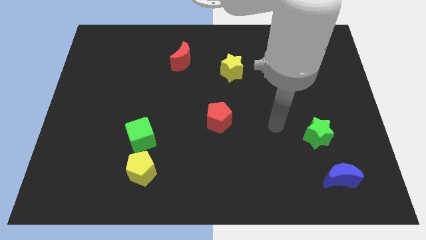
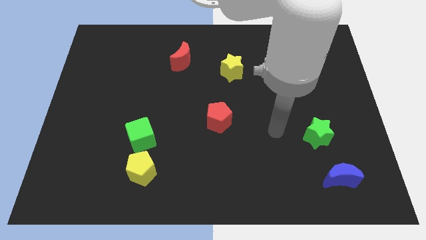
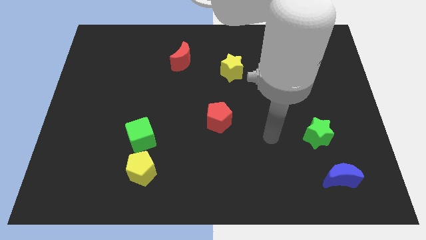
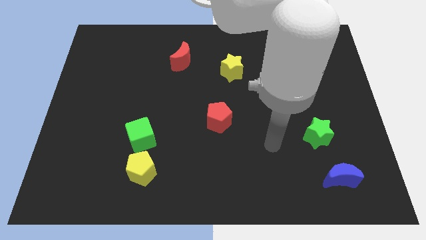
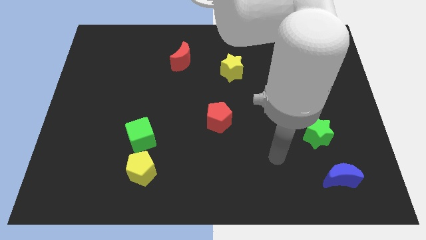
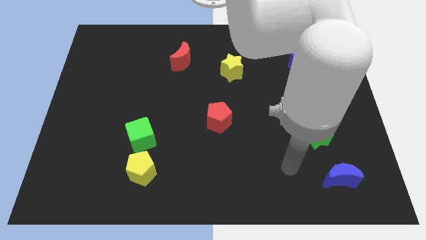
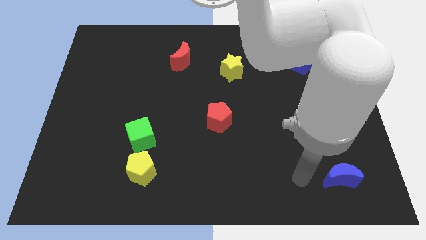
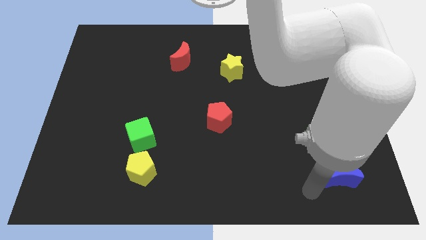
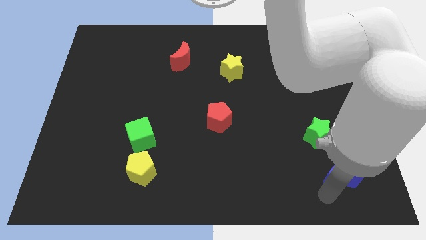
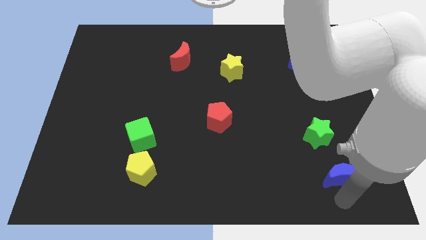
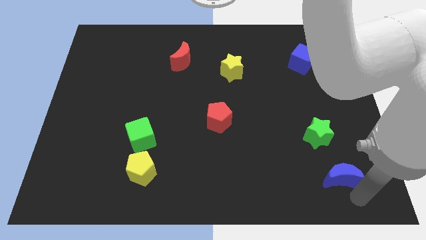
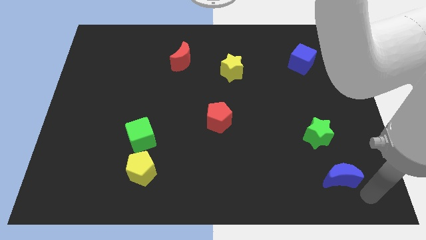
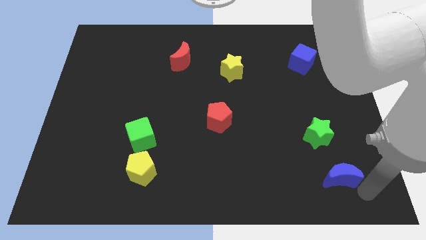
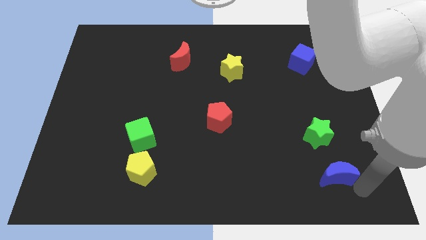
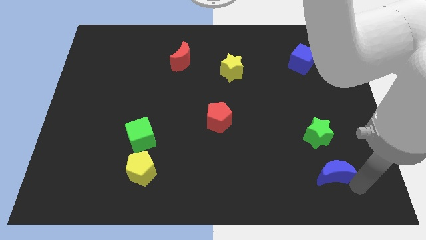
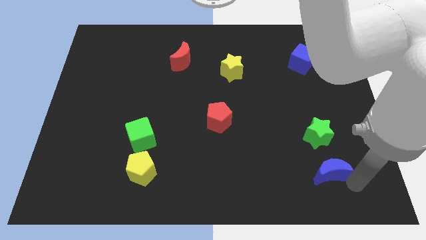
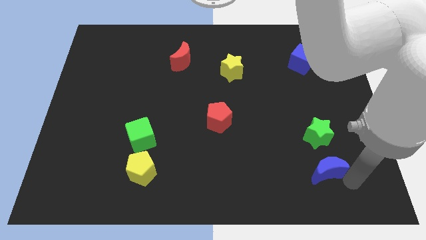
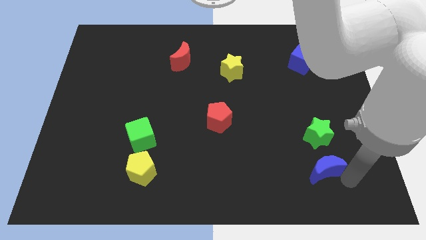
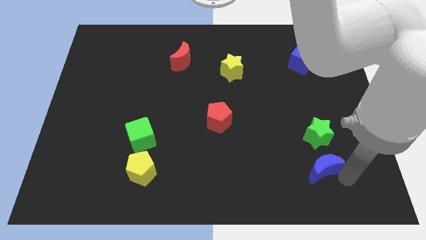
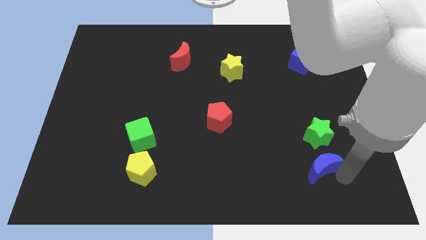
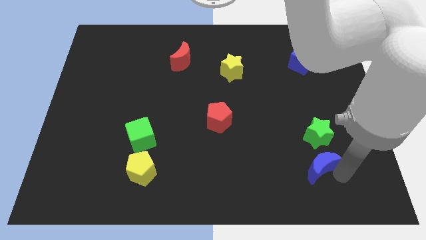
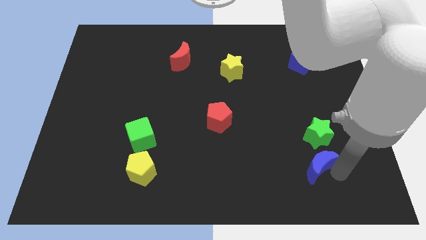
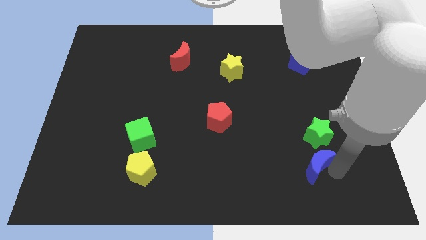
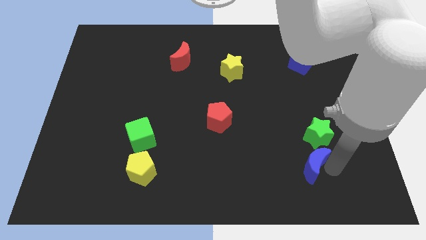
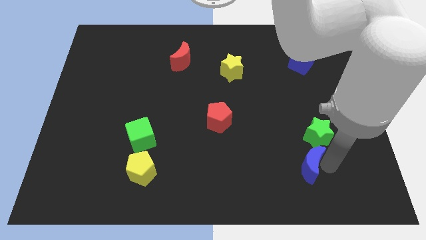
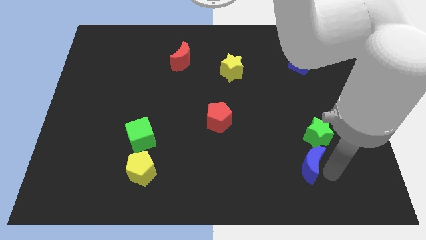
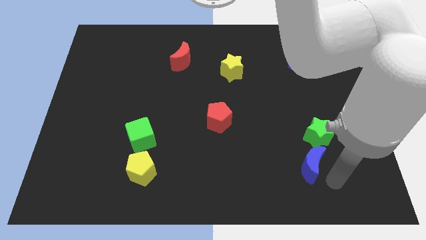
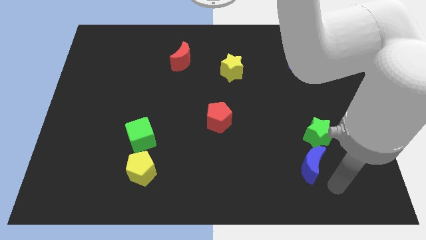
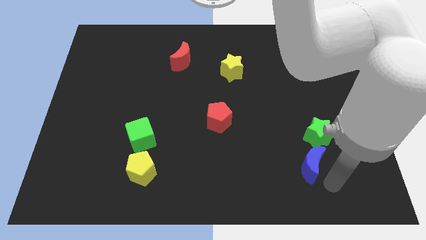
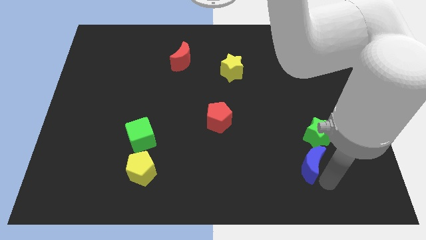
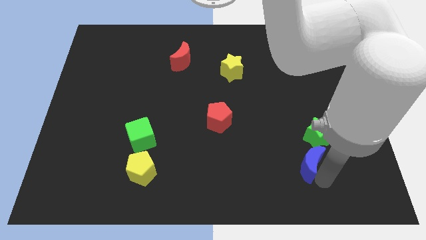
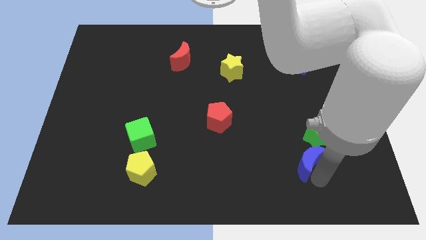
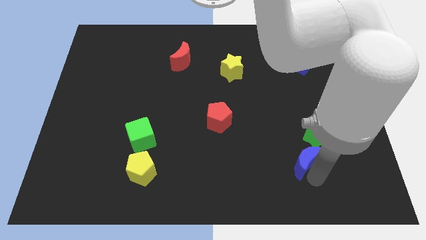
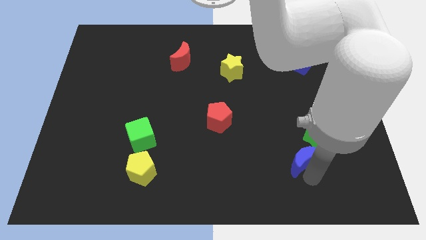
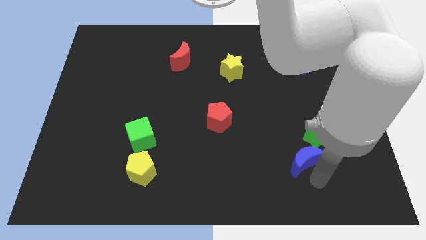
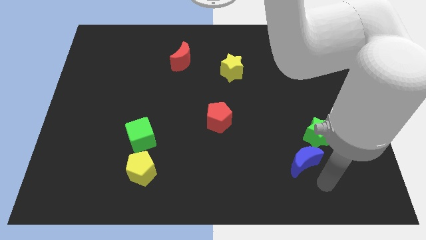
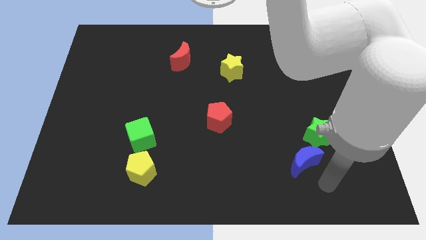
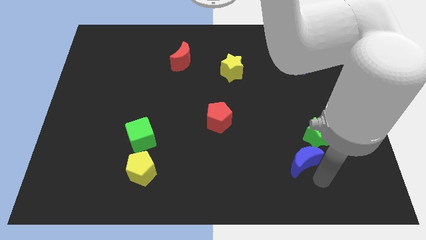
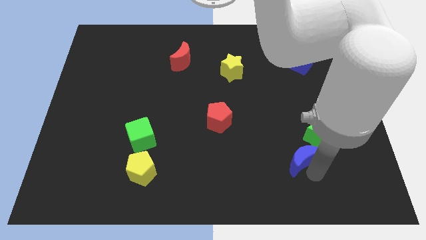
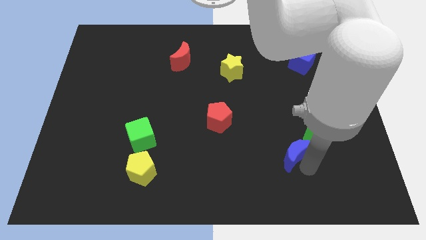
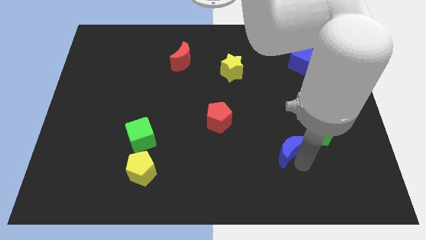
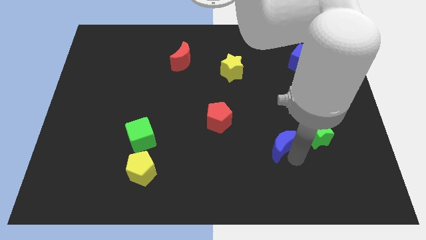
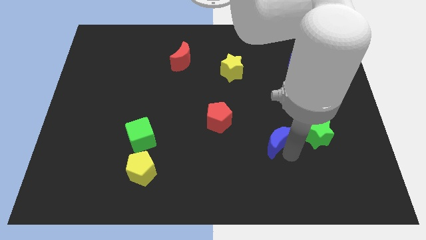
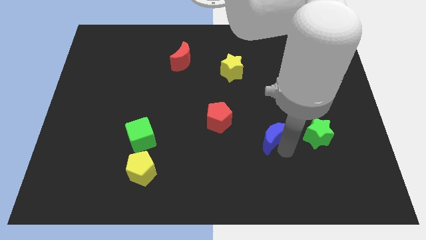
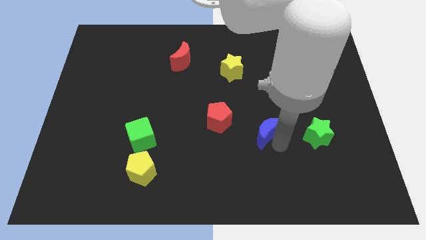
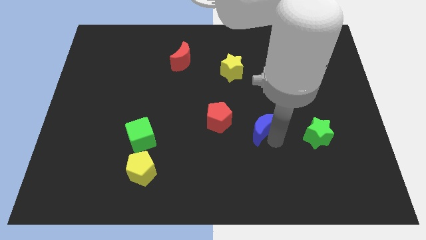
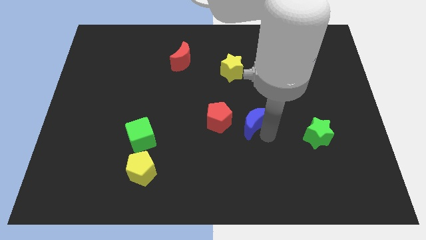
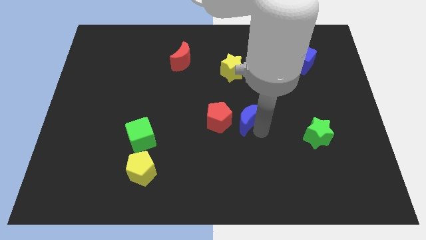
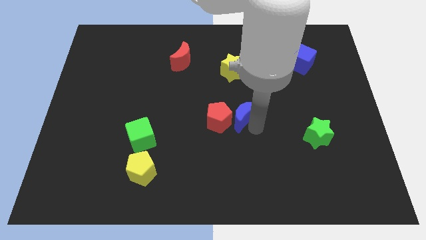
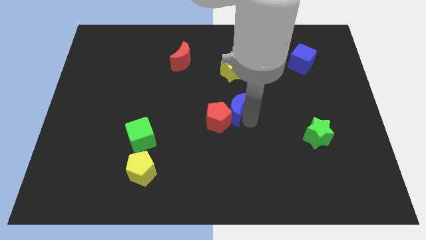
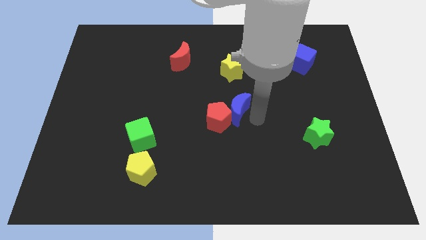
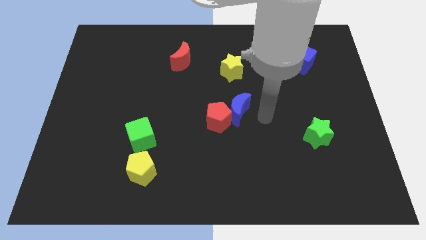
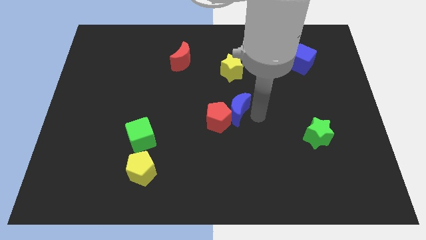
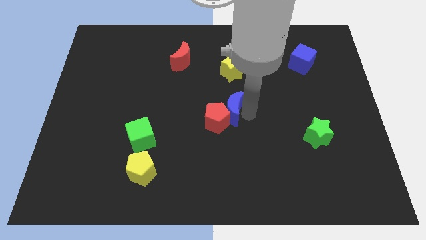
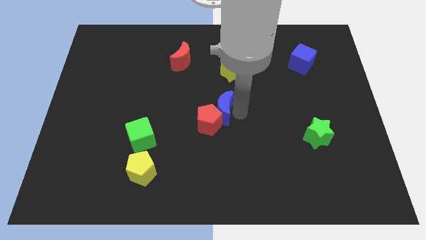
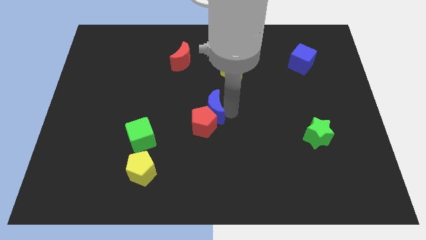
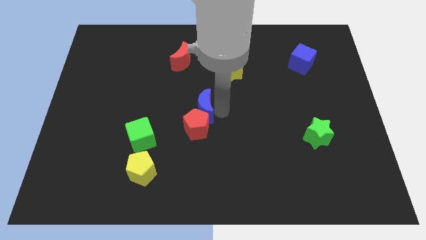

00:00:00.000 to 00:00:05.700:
move the blue moon to the top left of the red pentagon

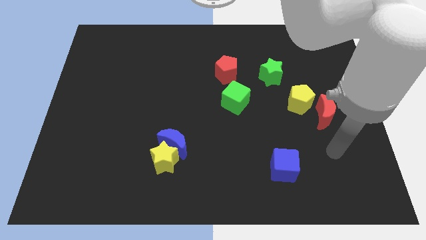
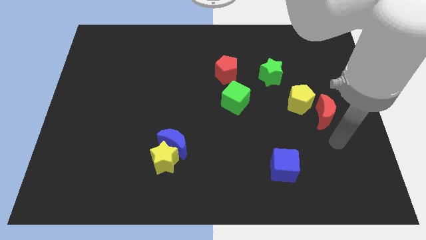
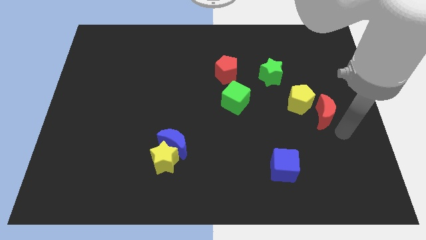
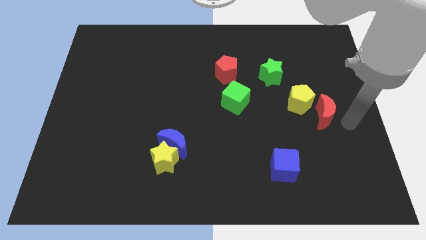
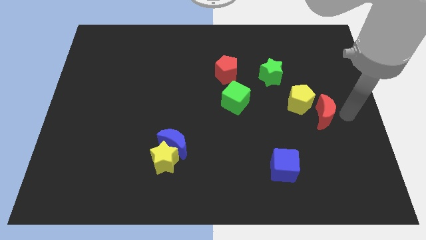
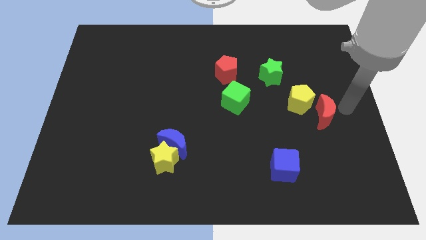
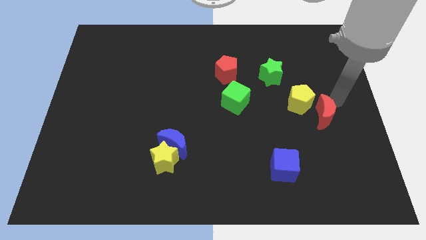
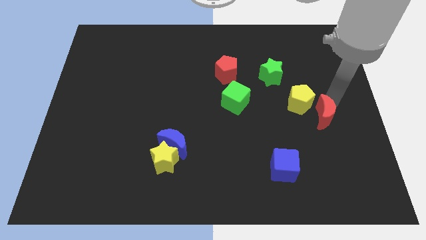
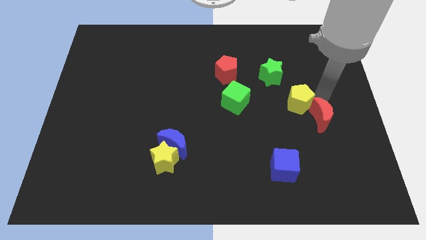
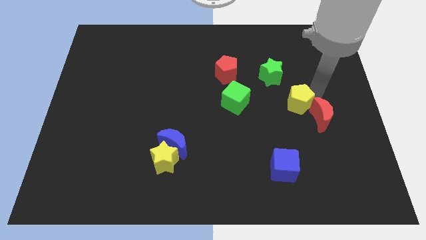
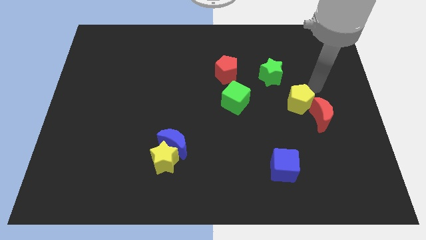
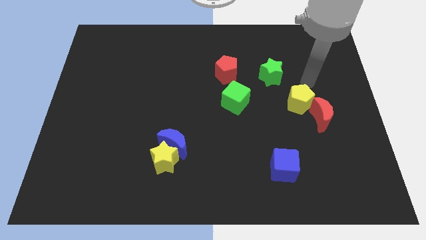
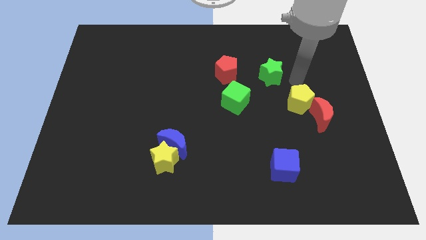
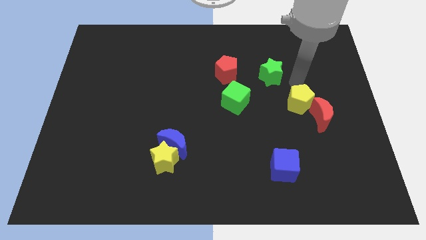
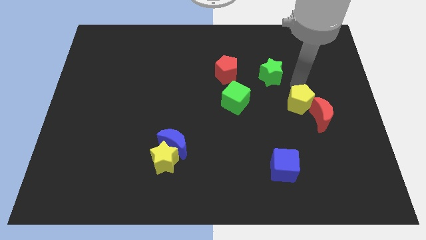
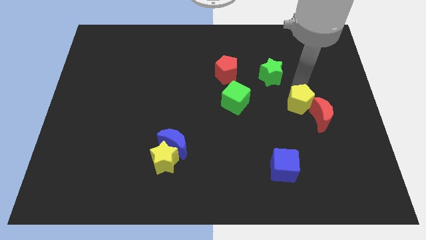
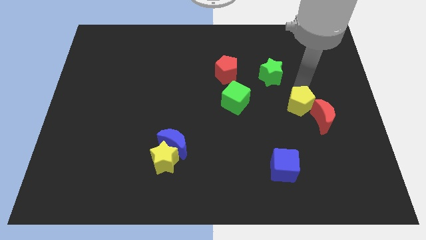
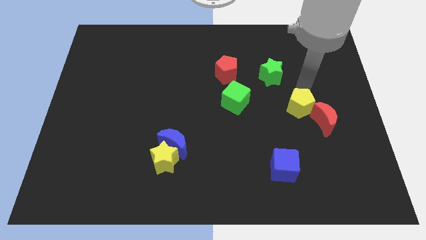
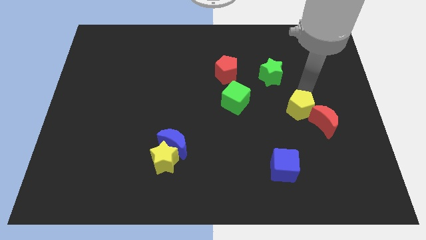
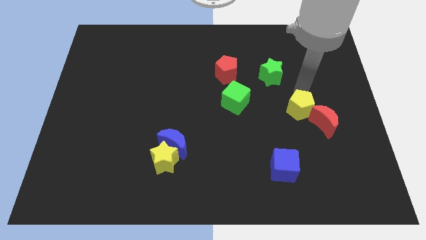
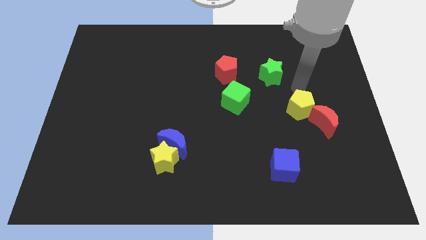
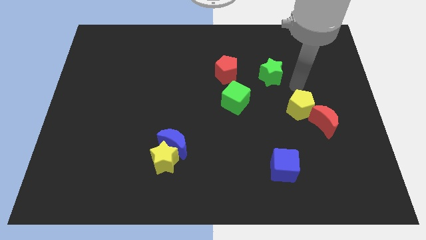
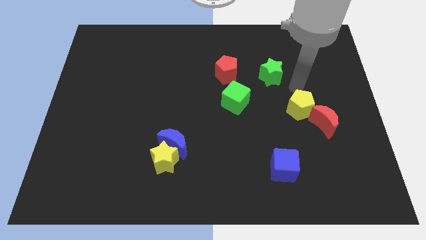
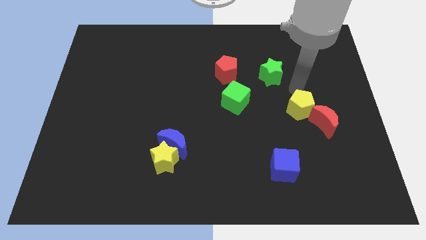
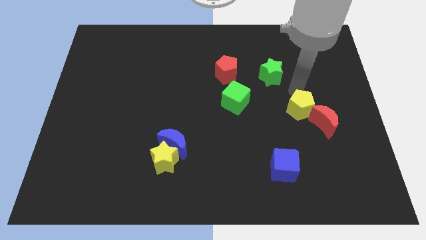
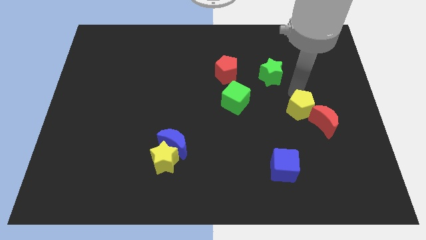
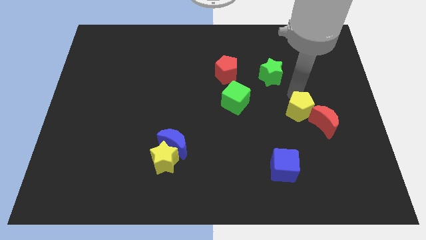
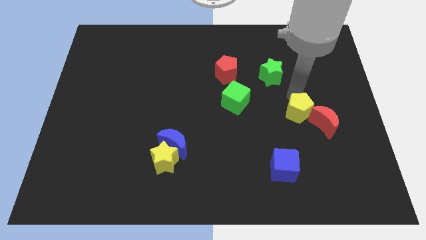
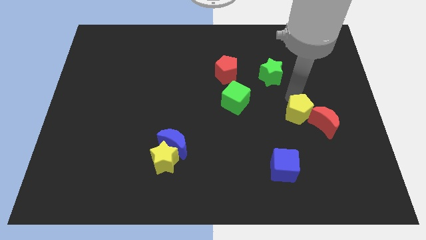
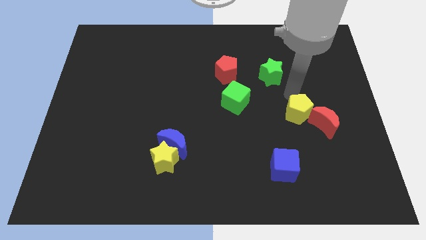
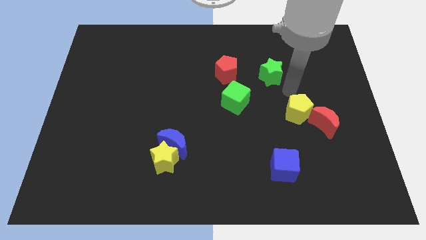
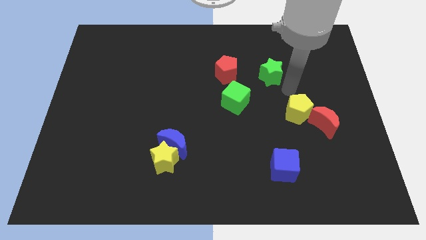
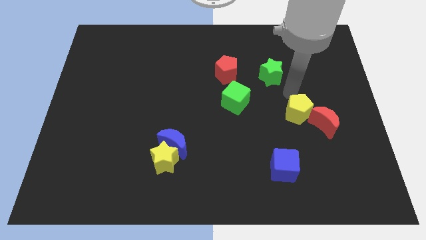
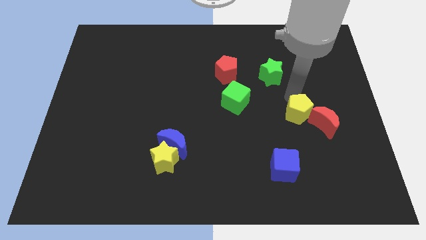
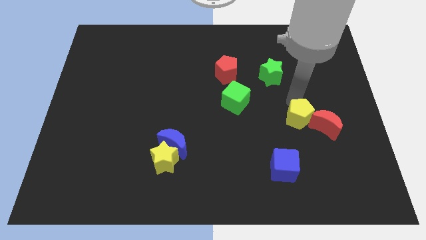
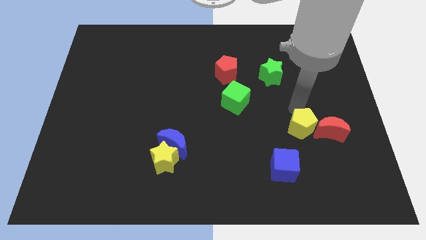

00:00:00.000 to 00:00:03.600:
move the yellow pentagon diagonally up and to the right of the blue cube
